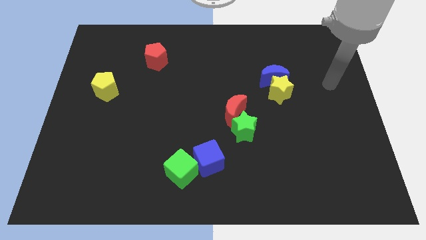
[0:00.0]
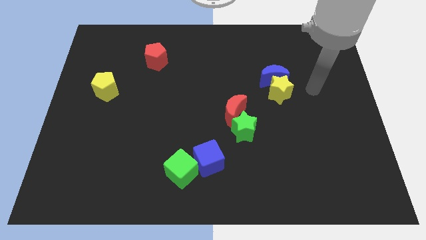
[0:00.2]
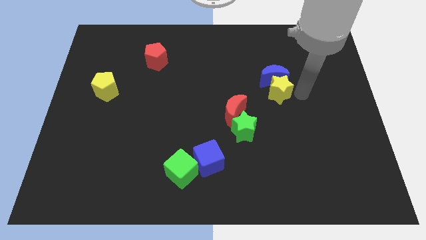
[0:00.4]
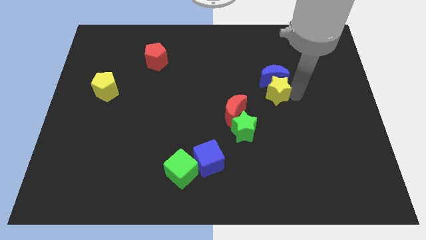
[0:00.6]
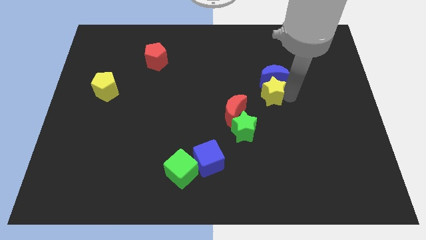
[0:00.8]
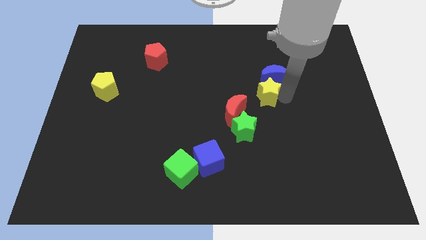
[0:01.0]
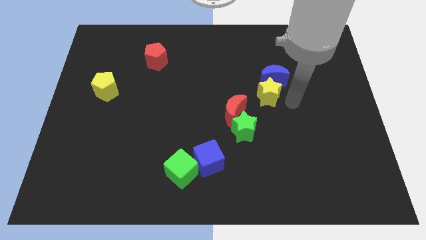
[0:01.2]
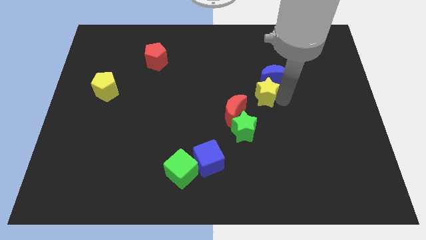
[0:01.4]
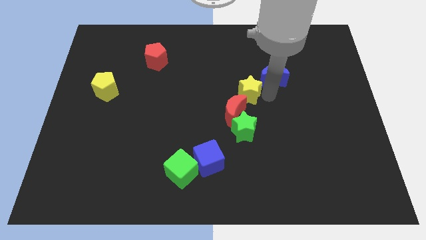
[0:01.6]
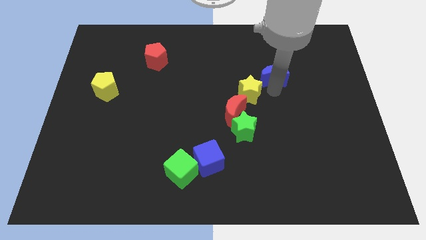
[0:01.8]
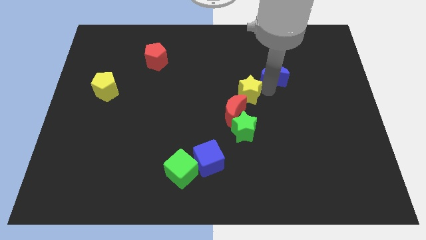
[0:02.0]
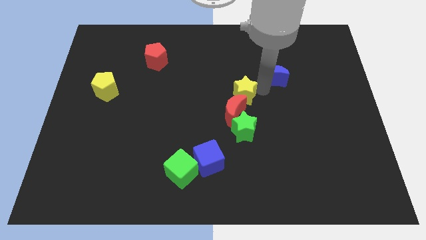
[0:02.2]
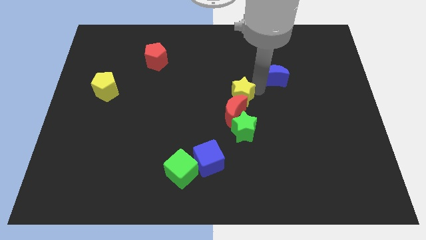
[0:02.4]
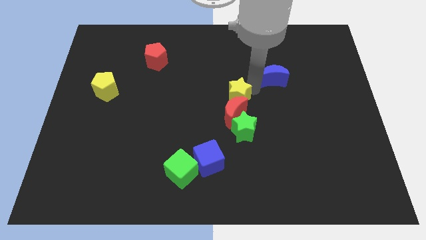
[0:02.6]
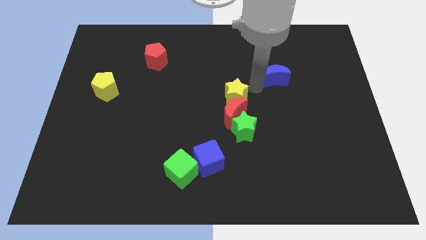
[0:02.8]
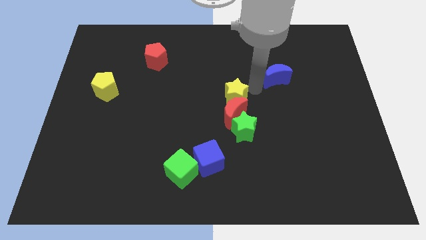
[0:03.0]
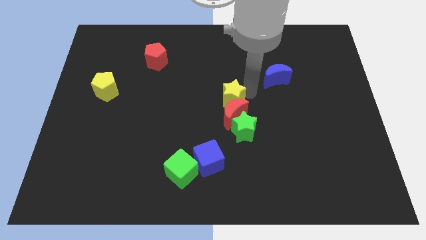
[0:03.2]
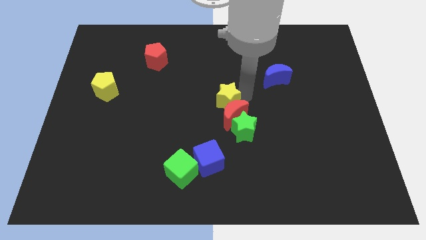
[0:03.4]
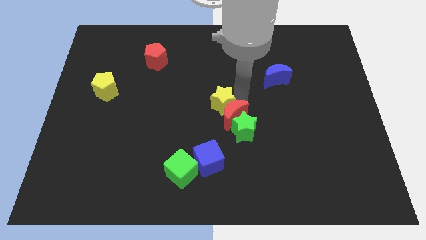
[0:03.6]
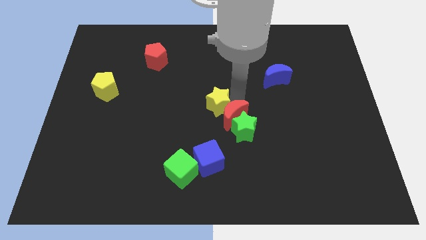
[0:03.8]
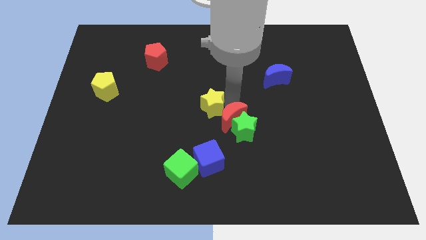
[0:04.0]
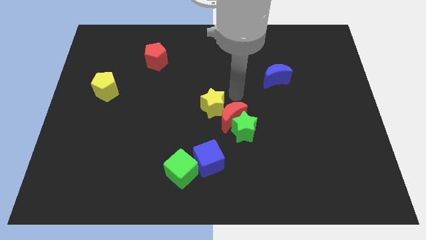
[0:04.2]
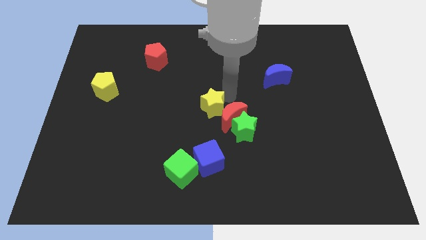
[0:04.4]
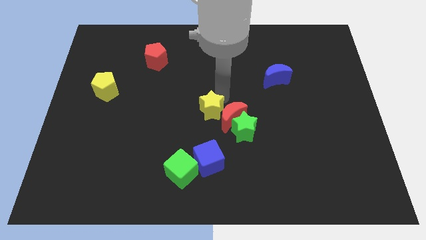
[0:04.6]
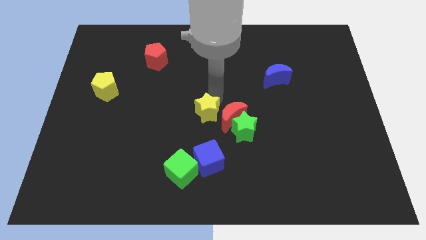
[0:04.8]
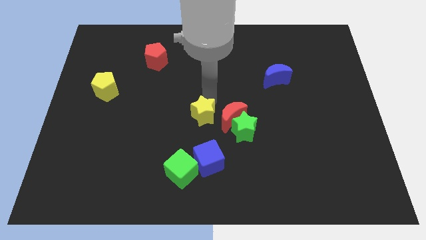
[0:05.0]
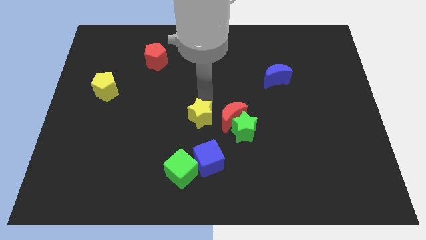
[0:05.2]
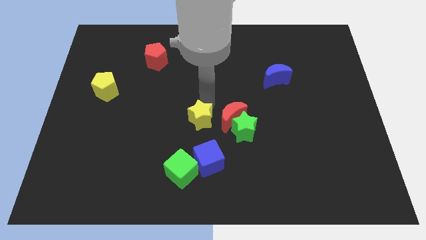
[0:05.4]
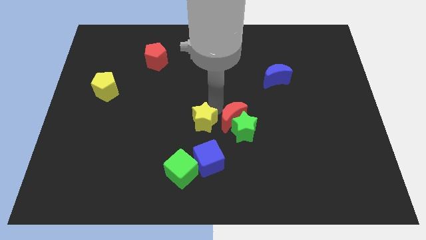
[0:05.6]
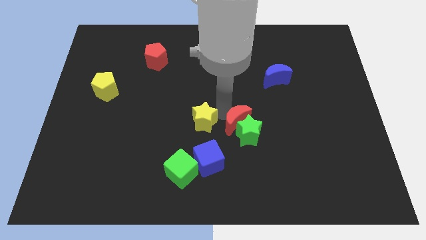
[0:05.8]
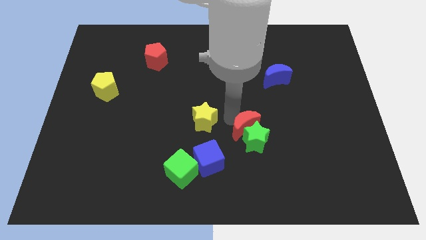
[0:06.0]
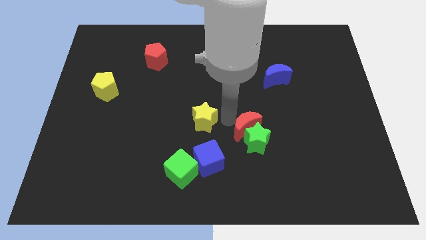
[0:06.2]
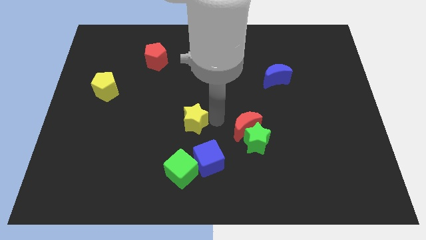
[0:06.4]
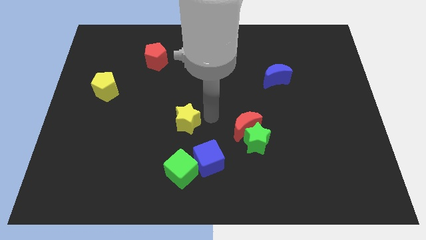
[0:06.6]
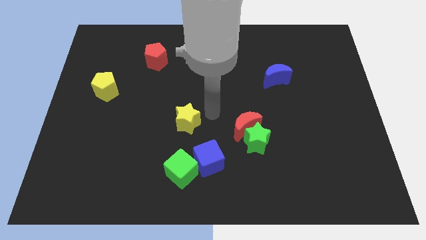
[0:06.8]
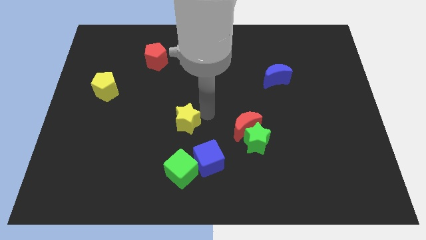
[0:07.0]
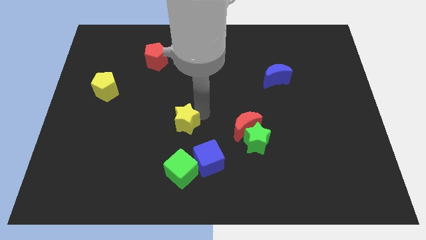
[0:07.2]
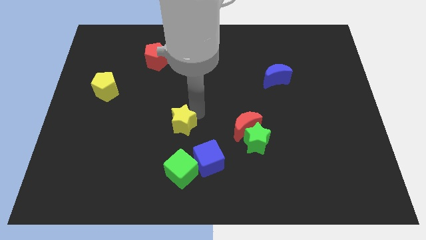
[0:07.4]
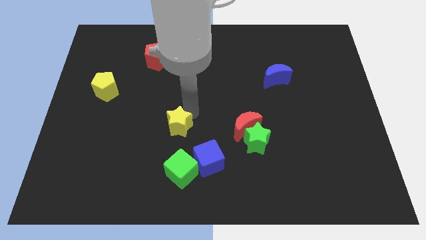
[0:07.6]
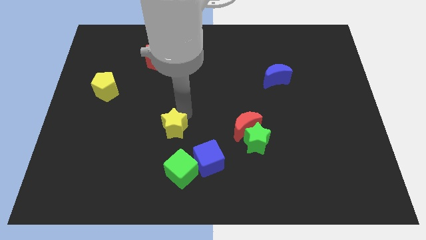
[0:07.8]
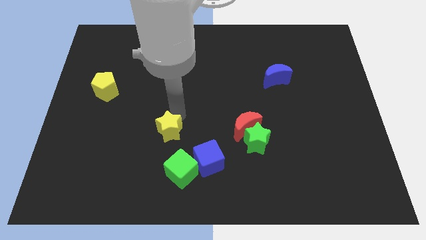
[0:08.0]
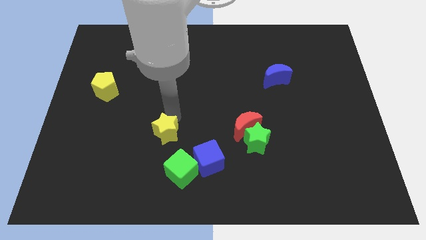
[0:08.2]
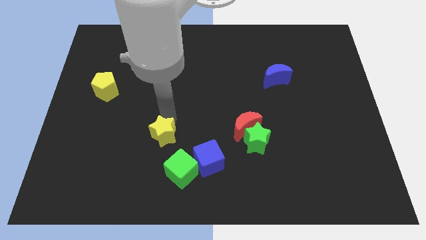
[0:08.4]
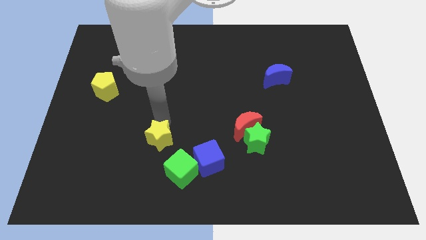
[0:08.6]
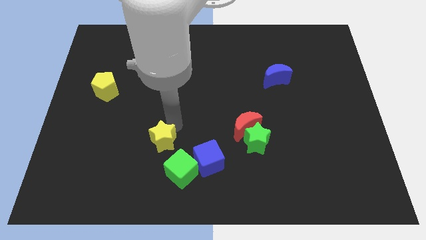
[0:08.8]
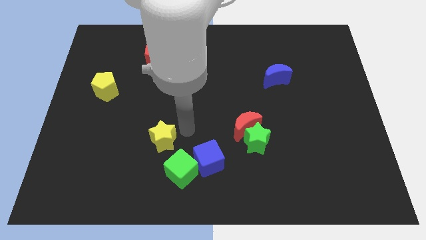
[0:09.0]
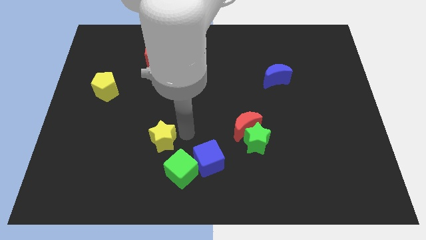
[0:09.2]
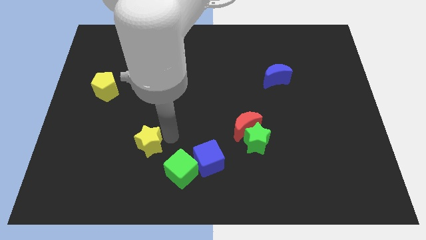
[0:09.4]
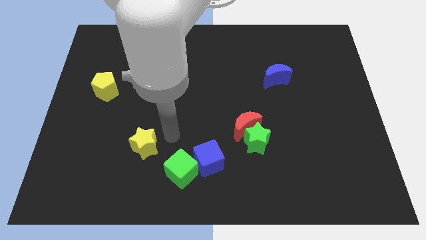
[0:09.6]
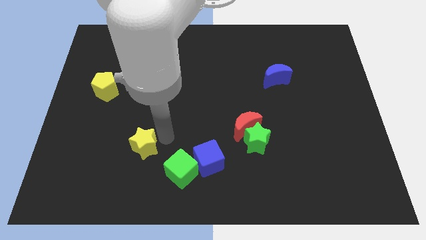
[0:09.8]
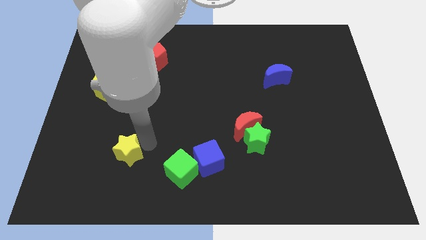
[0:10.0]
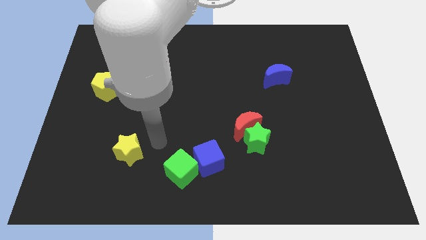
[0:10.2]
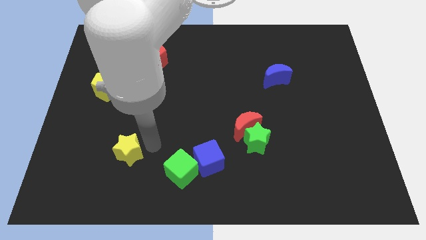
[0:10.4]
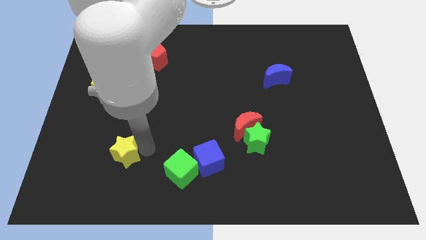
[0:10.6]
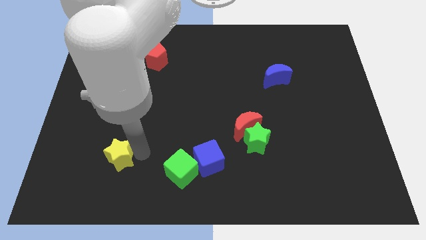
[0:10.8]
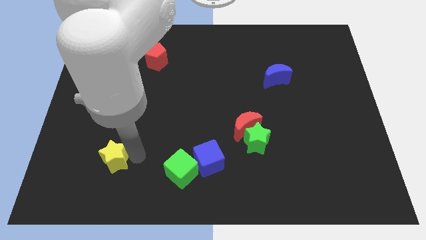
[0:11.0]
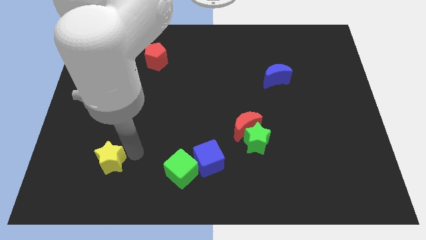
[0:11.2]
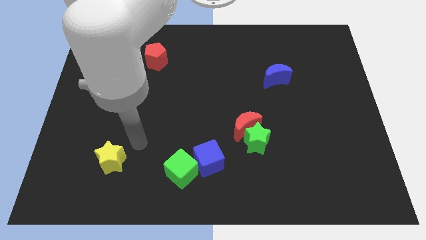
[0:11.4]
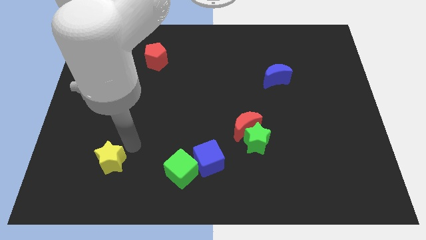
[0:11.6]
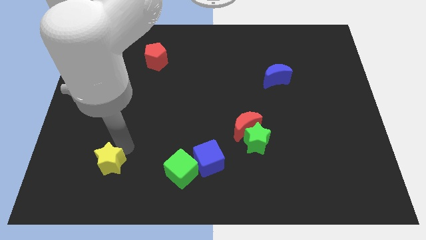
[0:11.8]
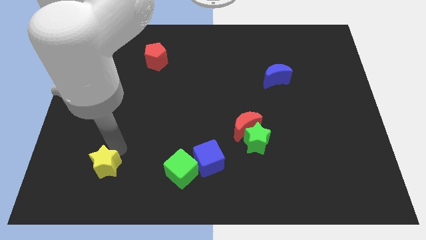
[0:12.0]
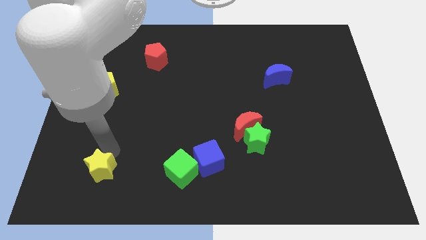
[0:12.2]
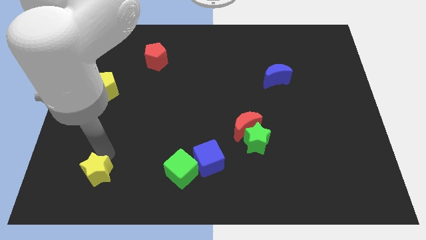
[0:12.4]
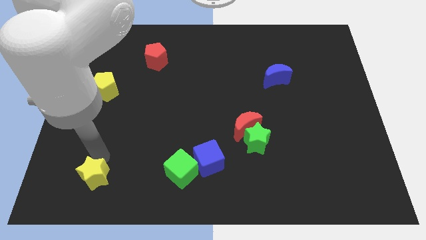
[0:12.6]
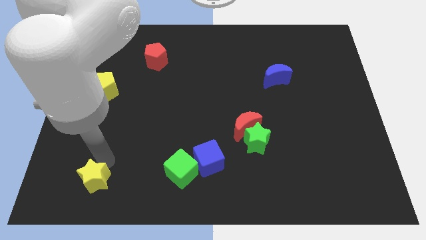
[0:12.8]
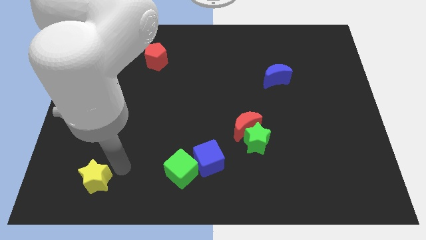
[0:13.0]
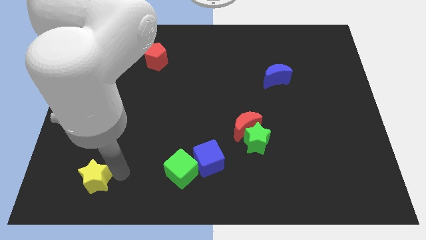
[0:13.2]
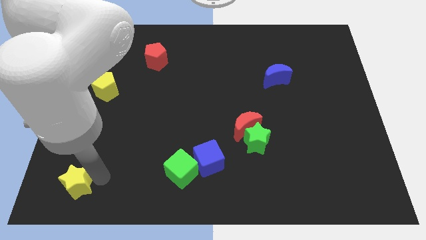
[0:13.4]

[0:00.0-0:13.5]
slide the yellow star to the lower left corner

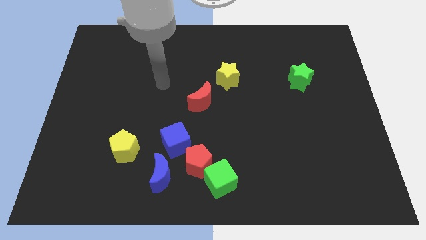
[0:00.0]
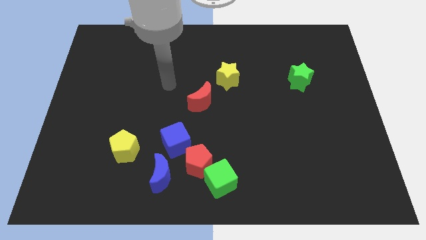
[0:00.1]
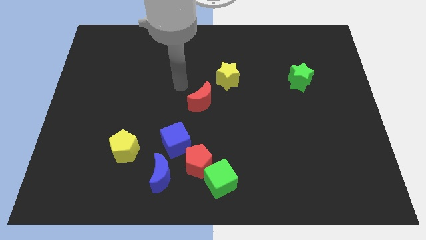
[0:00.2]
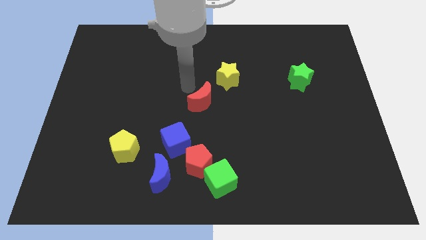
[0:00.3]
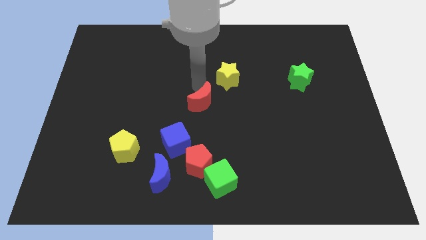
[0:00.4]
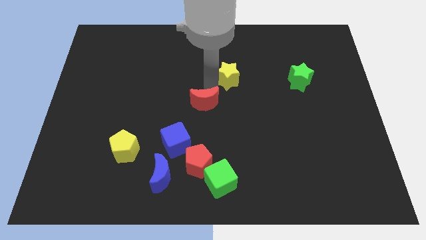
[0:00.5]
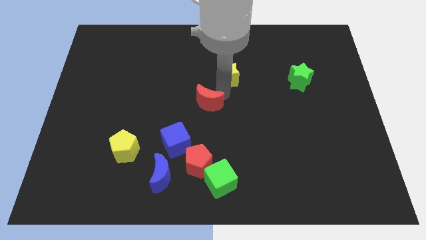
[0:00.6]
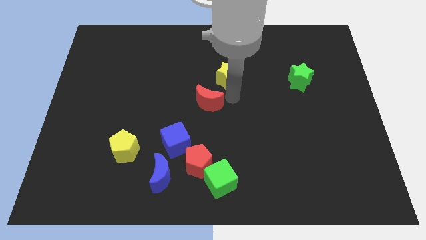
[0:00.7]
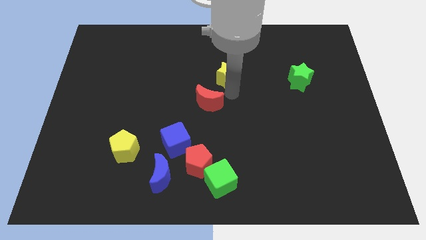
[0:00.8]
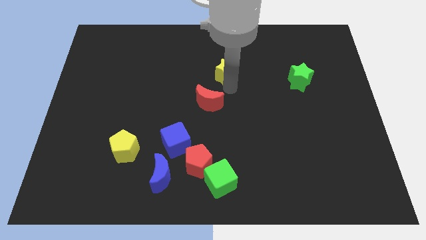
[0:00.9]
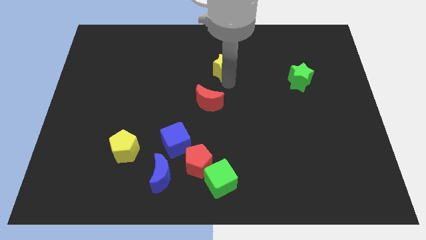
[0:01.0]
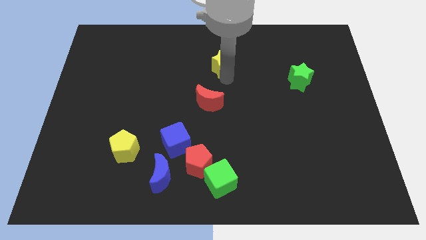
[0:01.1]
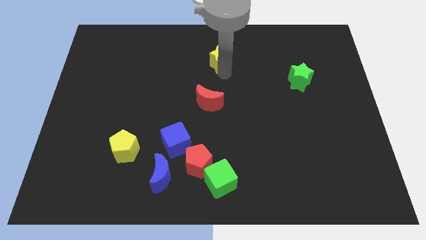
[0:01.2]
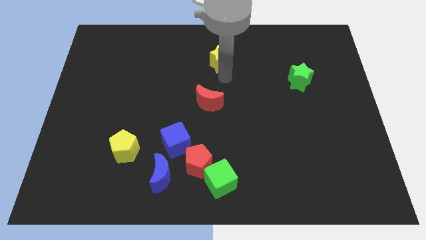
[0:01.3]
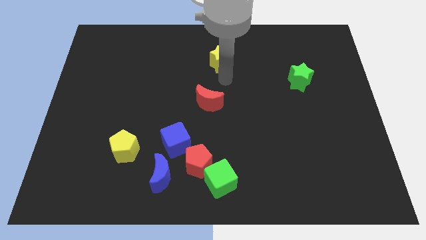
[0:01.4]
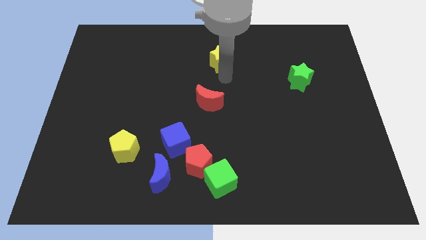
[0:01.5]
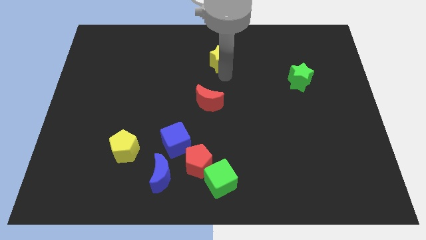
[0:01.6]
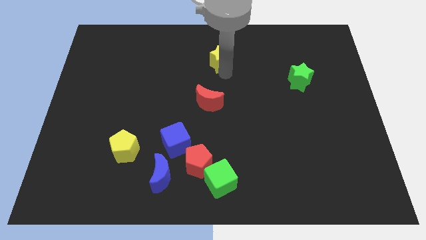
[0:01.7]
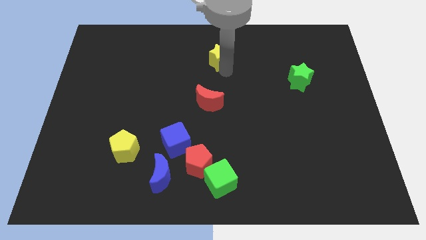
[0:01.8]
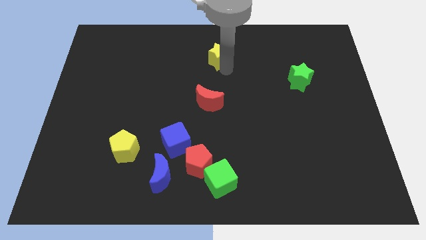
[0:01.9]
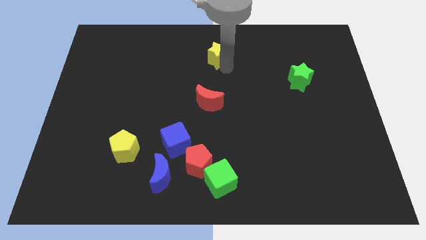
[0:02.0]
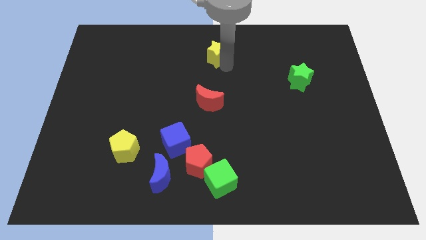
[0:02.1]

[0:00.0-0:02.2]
push the yellow star to the top side
